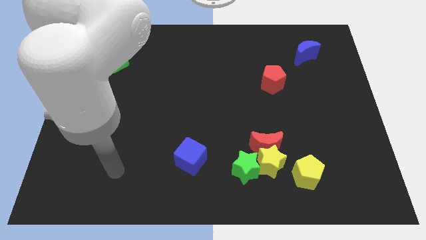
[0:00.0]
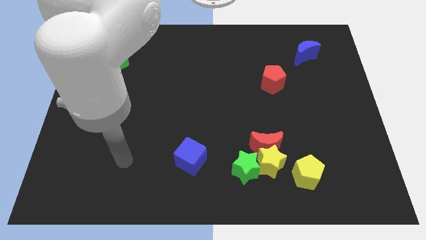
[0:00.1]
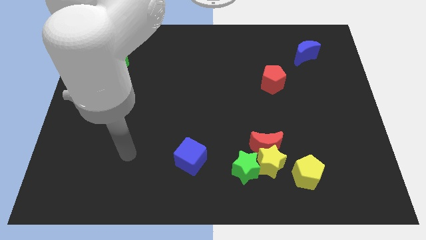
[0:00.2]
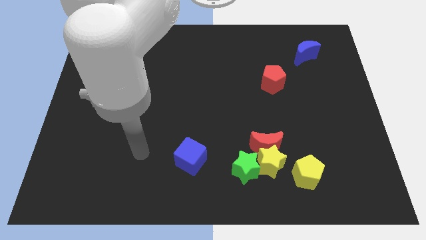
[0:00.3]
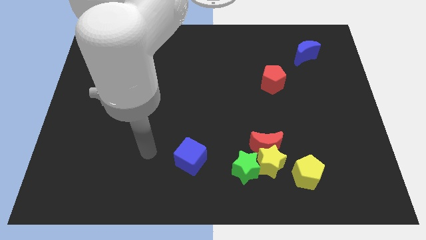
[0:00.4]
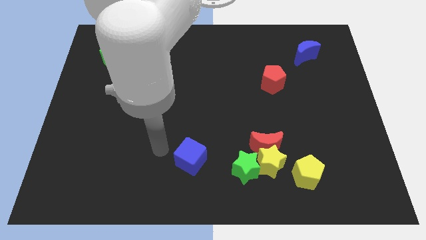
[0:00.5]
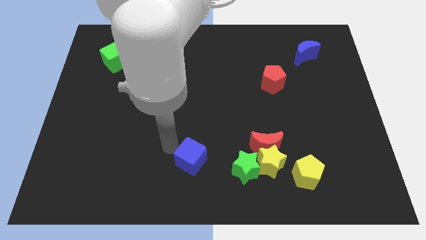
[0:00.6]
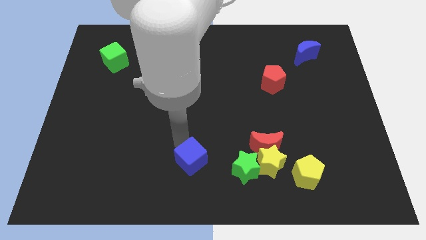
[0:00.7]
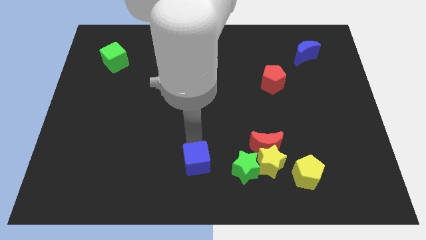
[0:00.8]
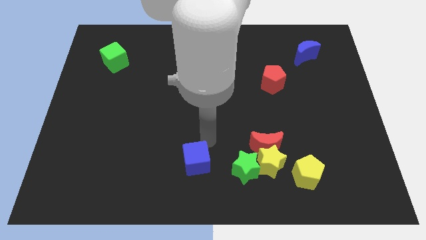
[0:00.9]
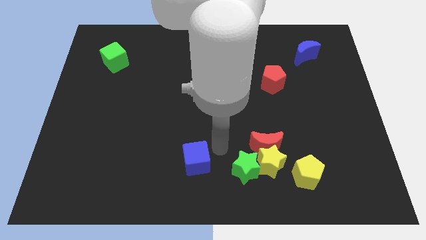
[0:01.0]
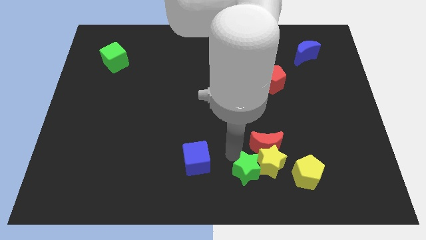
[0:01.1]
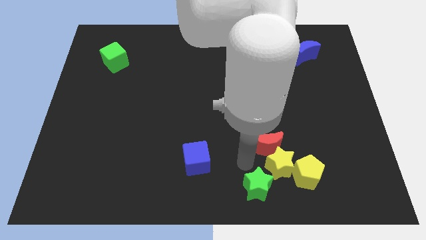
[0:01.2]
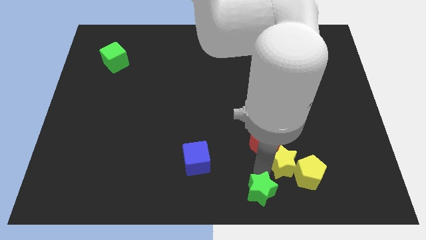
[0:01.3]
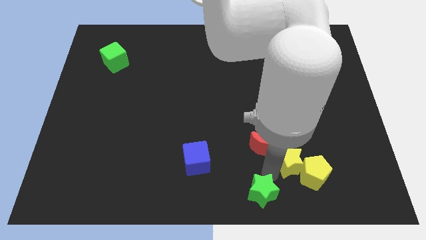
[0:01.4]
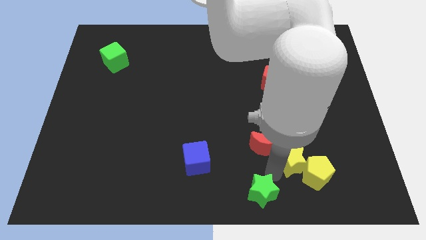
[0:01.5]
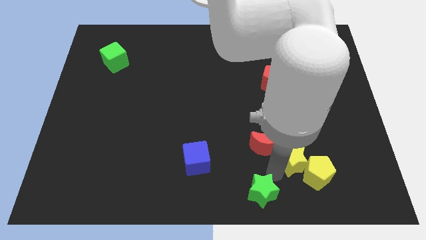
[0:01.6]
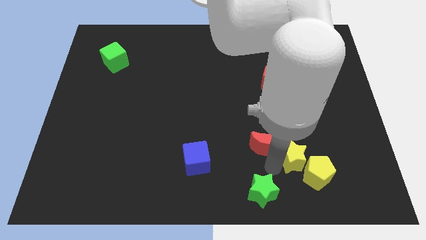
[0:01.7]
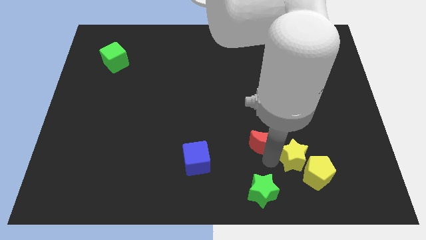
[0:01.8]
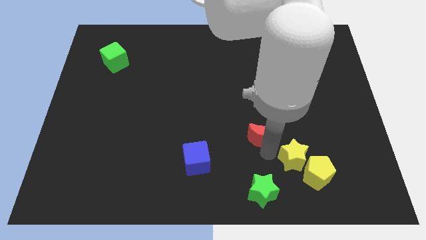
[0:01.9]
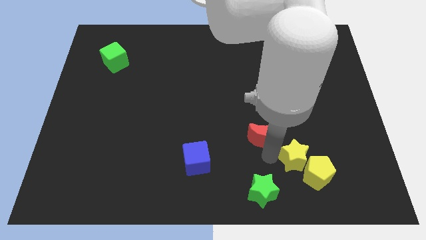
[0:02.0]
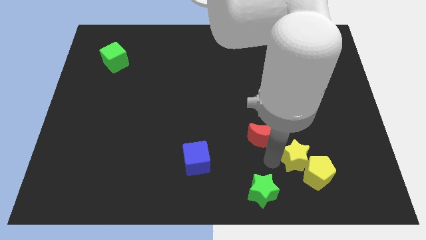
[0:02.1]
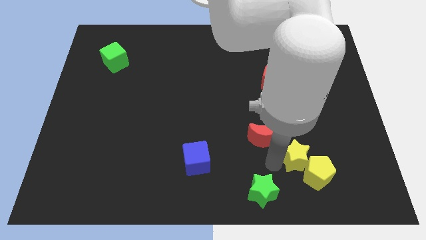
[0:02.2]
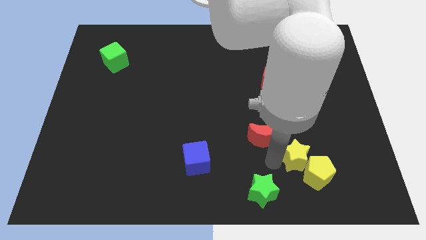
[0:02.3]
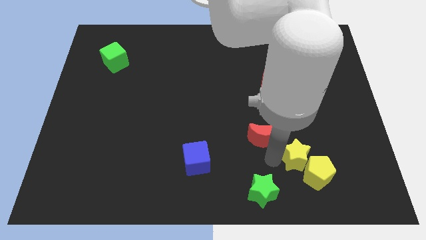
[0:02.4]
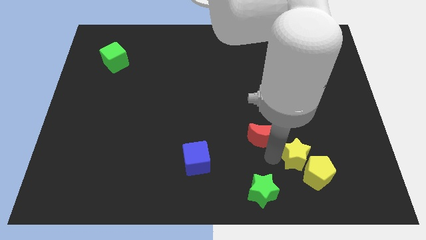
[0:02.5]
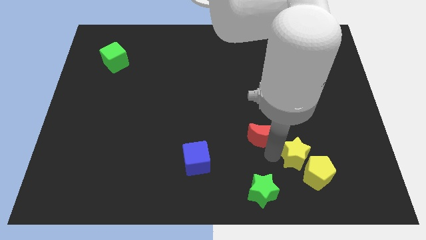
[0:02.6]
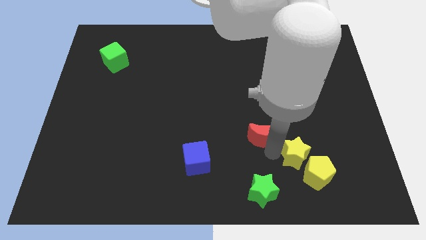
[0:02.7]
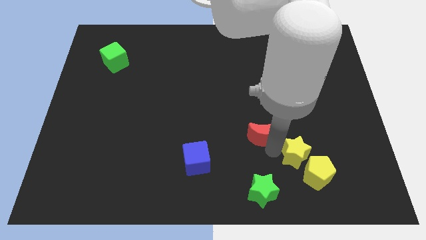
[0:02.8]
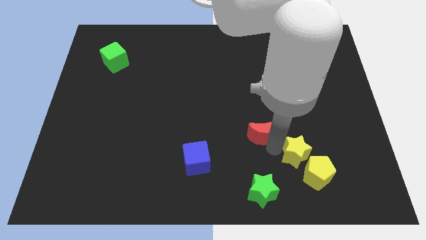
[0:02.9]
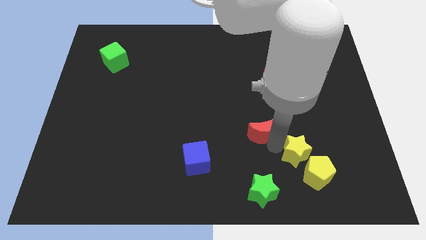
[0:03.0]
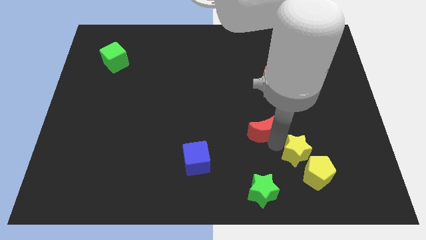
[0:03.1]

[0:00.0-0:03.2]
pull the red moon apart from the yellow star and green star

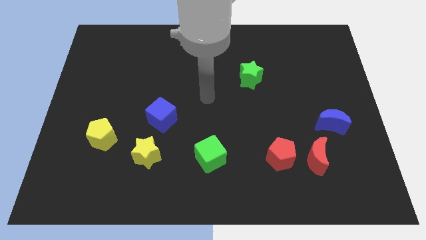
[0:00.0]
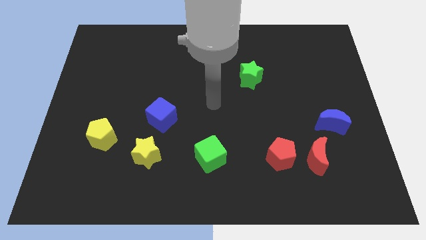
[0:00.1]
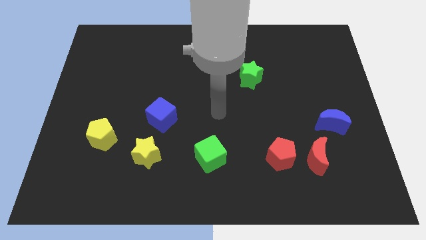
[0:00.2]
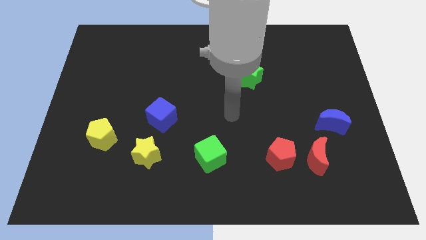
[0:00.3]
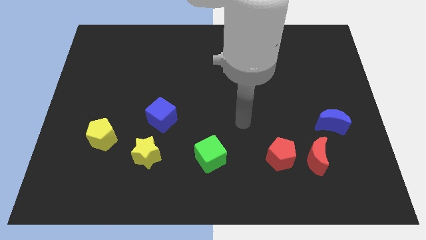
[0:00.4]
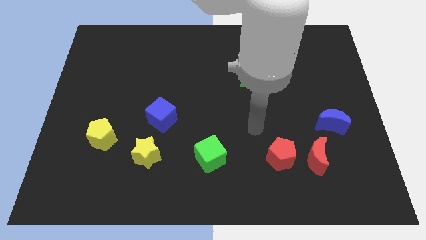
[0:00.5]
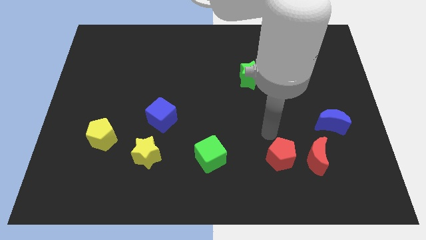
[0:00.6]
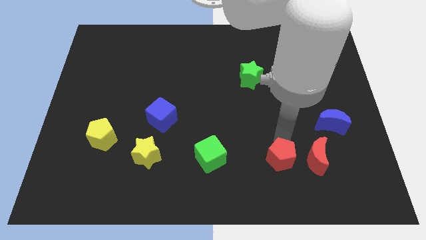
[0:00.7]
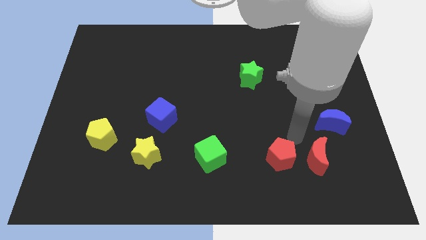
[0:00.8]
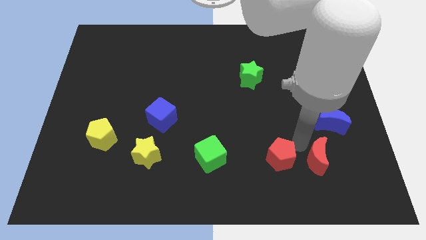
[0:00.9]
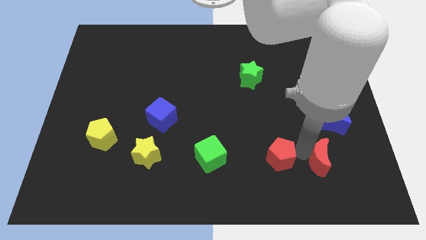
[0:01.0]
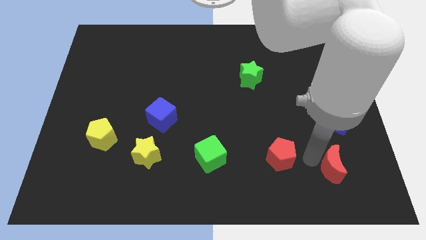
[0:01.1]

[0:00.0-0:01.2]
move the red pentagon away from the red moon

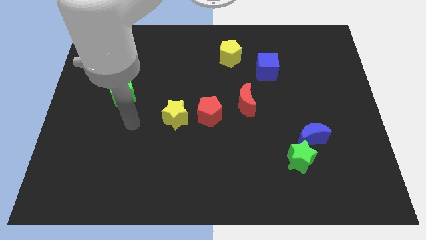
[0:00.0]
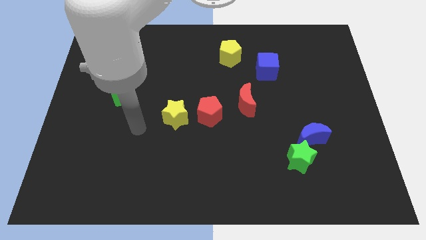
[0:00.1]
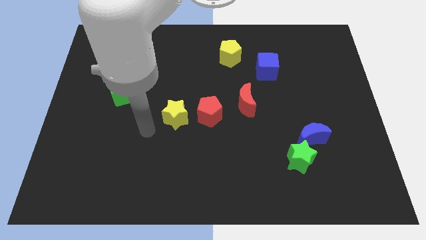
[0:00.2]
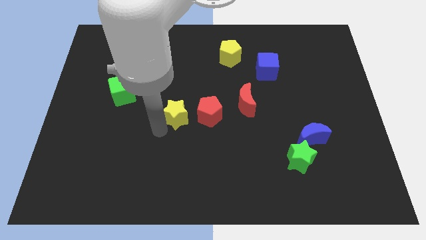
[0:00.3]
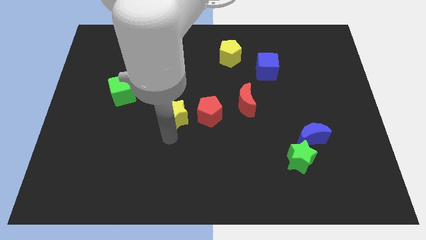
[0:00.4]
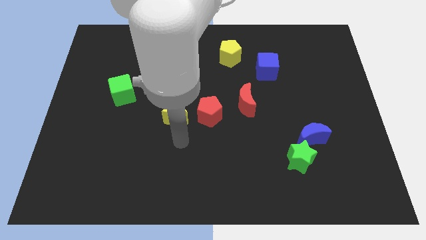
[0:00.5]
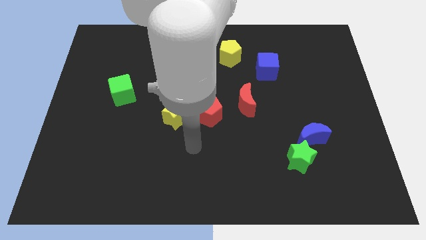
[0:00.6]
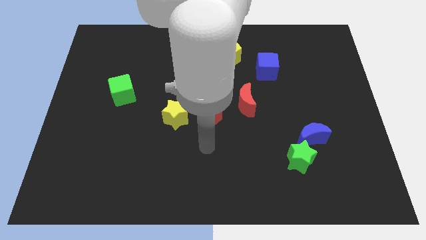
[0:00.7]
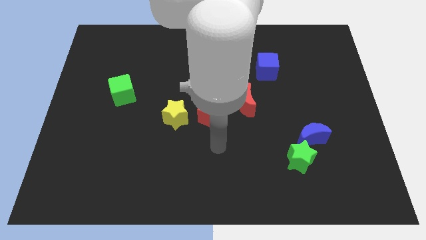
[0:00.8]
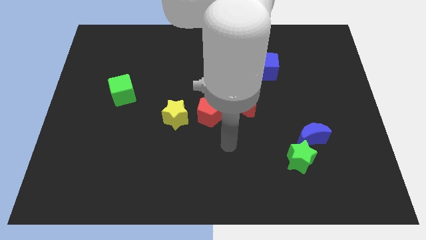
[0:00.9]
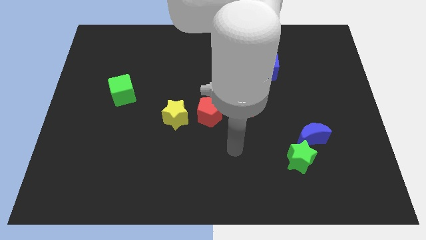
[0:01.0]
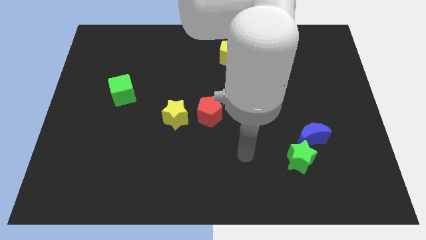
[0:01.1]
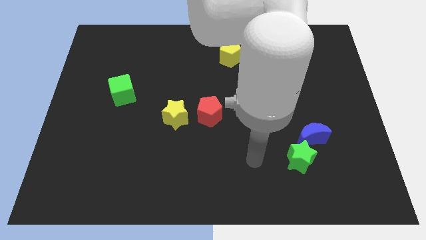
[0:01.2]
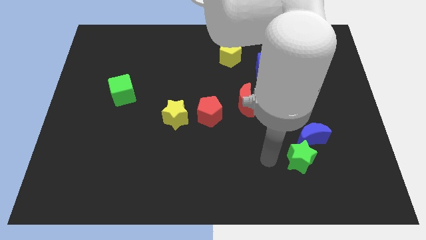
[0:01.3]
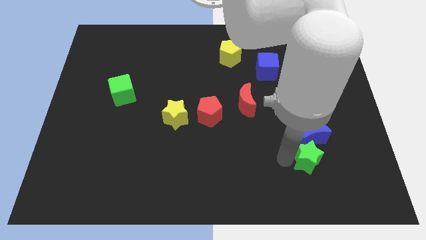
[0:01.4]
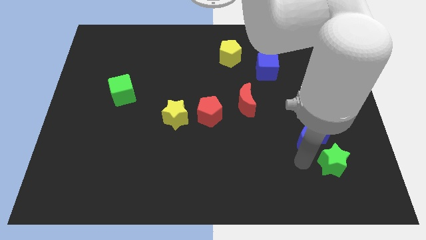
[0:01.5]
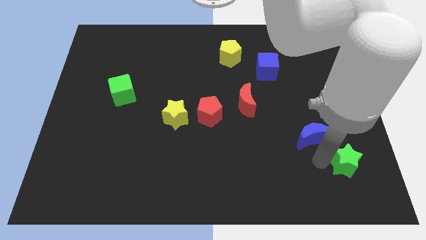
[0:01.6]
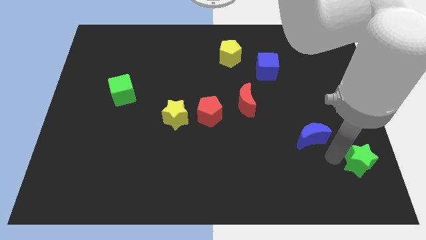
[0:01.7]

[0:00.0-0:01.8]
move the blue moon away from the green star

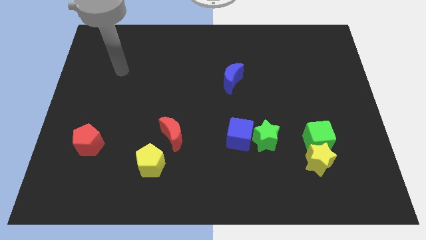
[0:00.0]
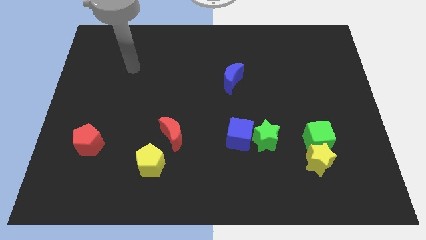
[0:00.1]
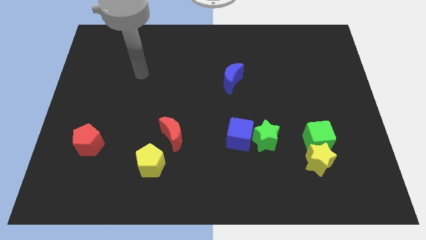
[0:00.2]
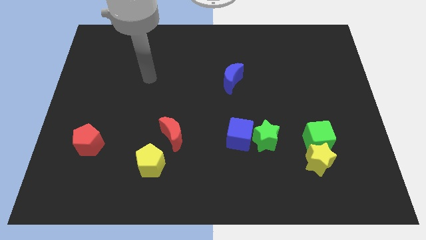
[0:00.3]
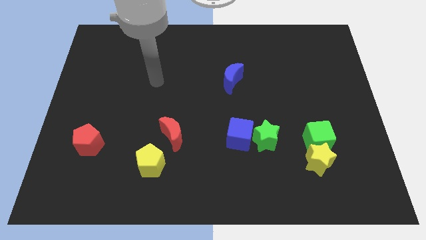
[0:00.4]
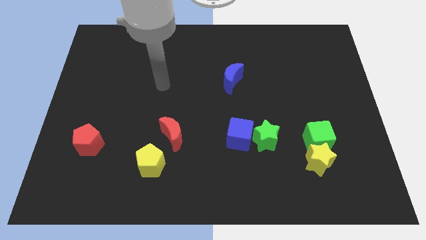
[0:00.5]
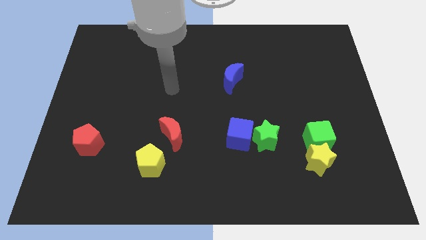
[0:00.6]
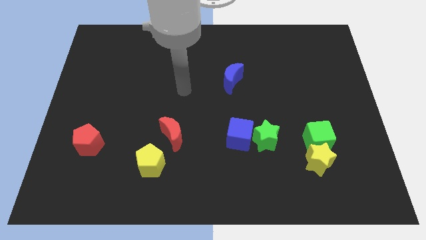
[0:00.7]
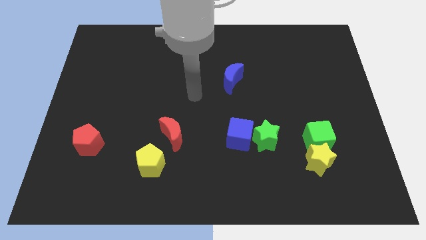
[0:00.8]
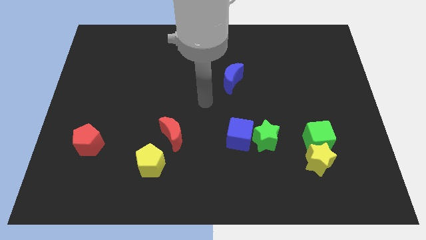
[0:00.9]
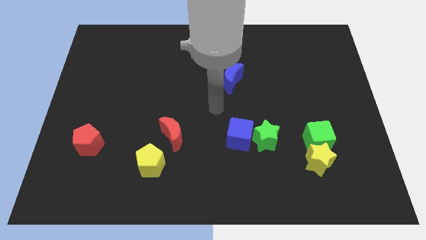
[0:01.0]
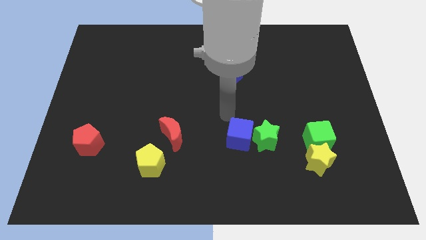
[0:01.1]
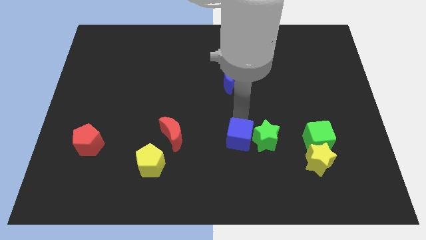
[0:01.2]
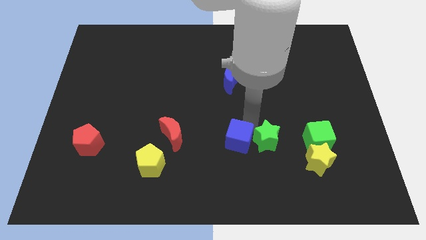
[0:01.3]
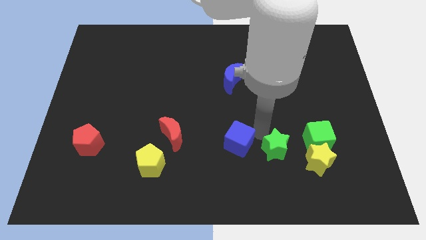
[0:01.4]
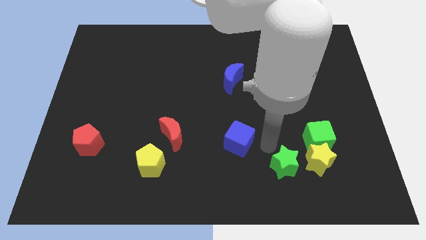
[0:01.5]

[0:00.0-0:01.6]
pull the blue cube apart from the green star

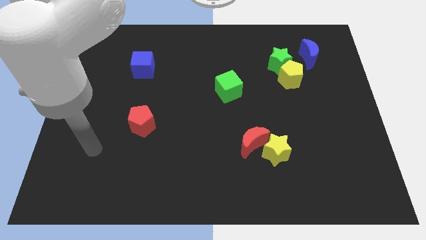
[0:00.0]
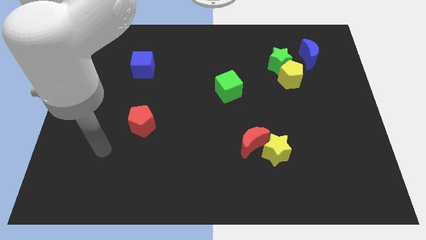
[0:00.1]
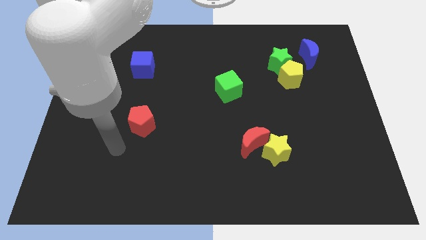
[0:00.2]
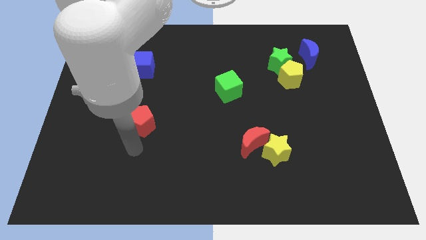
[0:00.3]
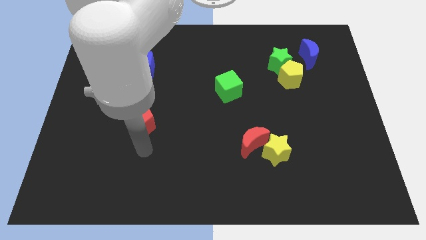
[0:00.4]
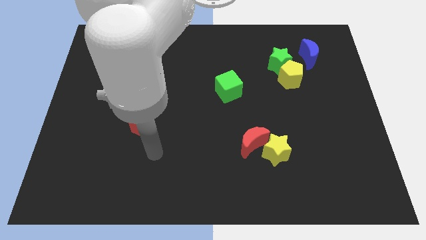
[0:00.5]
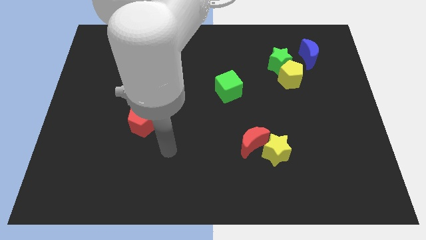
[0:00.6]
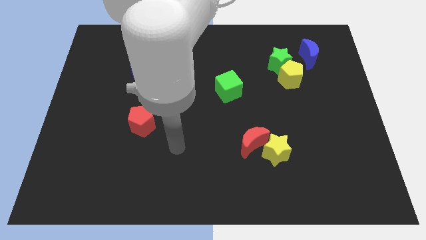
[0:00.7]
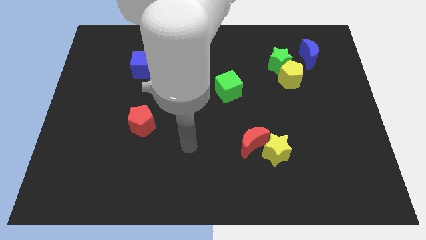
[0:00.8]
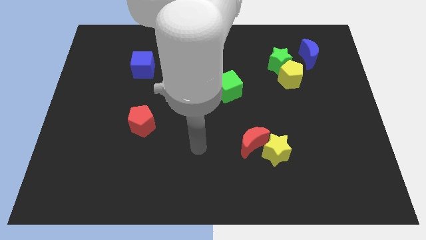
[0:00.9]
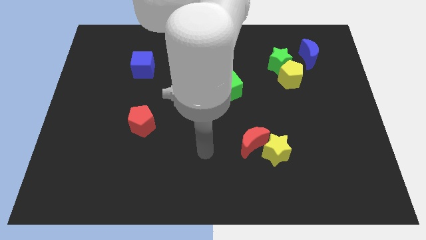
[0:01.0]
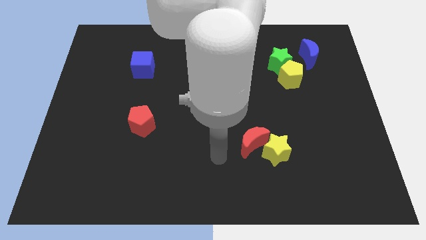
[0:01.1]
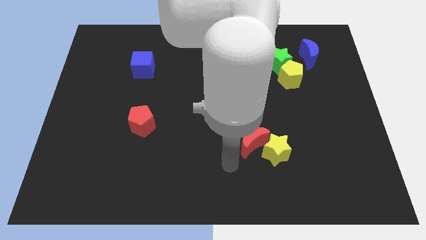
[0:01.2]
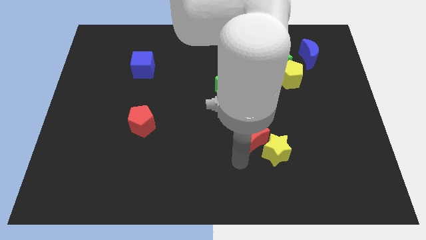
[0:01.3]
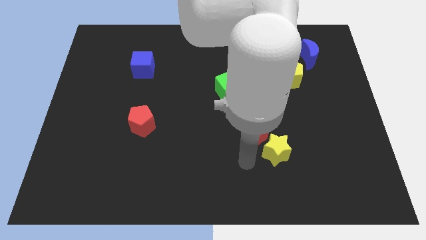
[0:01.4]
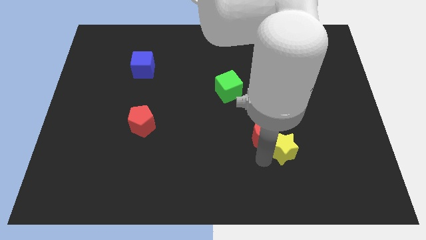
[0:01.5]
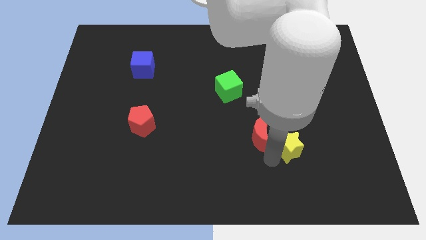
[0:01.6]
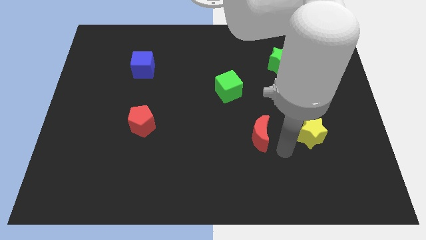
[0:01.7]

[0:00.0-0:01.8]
separate the red moon from the yellow star
